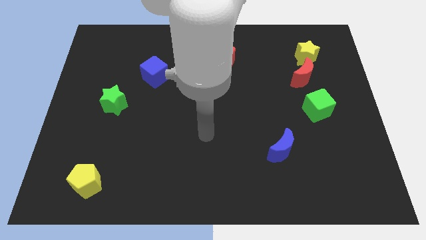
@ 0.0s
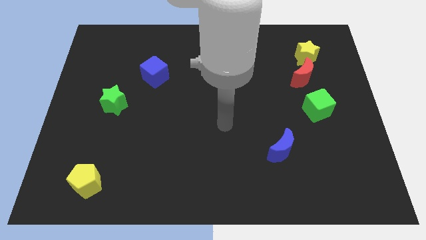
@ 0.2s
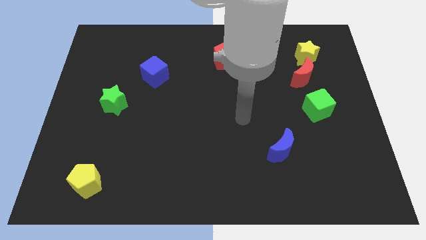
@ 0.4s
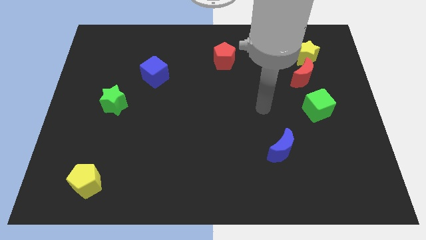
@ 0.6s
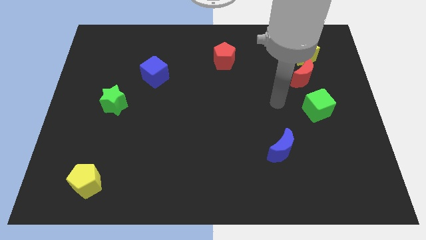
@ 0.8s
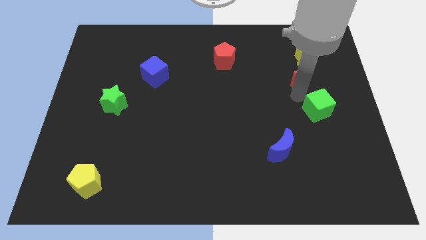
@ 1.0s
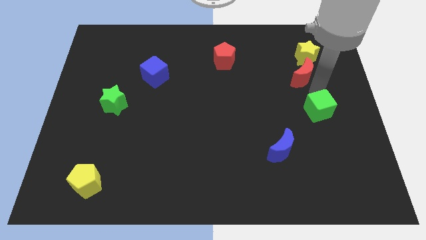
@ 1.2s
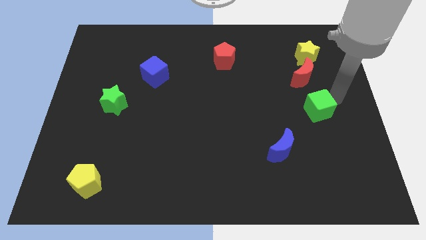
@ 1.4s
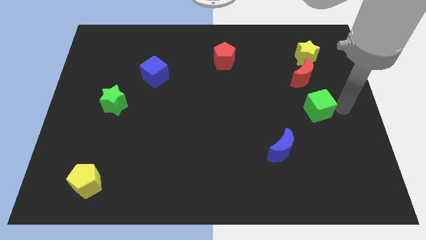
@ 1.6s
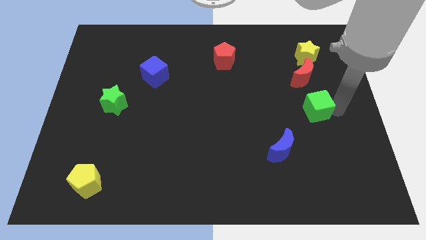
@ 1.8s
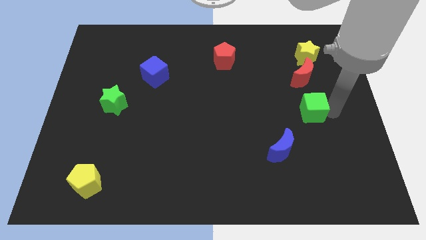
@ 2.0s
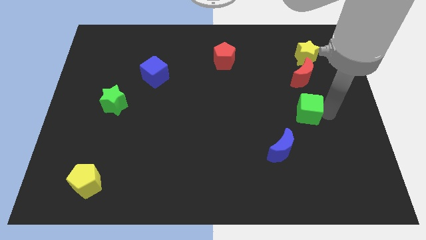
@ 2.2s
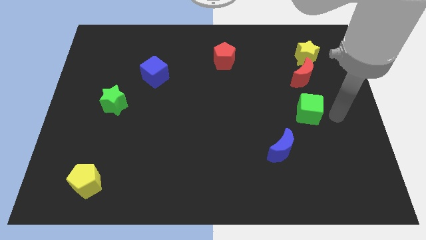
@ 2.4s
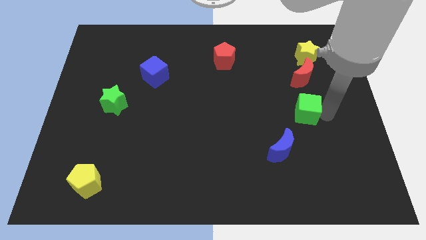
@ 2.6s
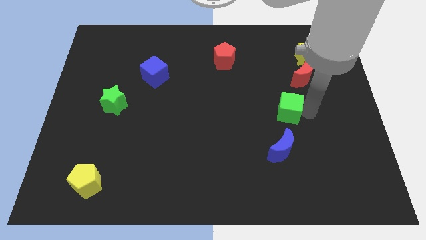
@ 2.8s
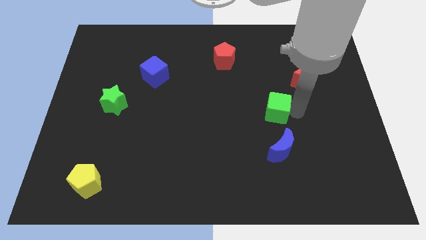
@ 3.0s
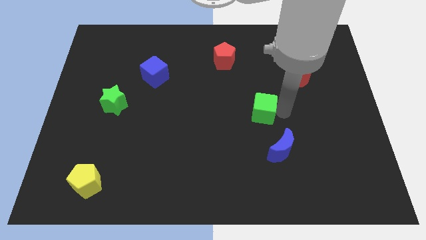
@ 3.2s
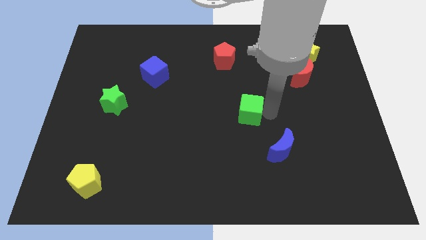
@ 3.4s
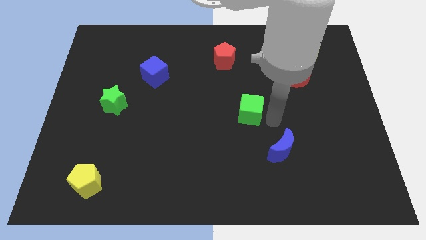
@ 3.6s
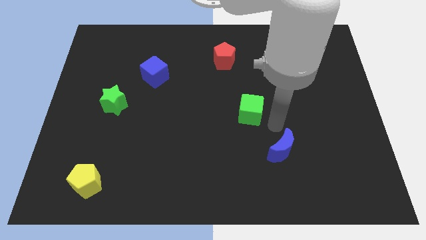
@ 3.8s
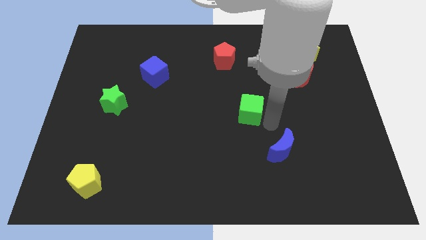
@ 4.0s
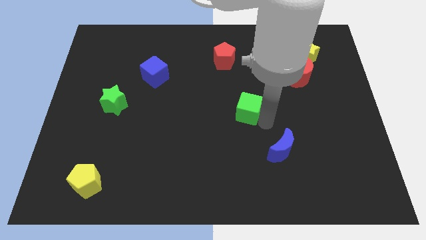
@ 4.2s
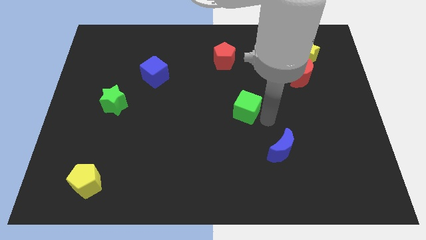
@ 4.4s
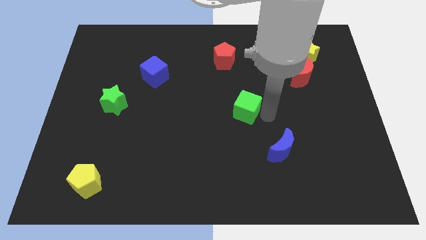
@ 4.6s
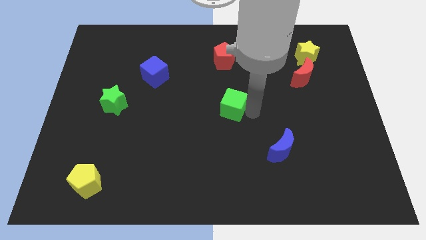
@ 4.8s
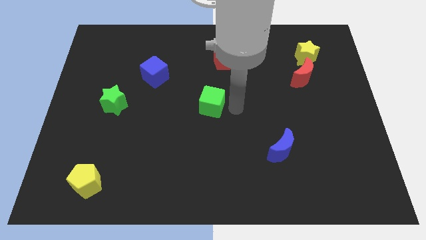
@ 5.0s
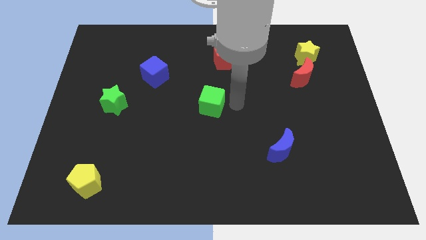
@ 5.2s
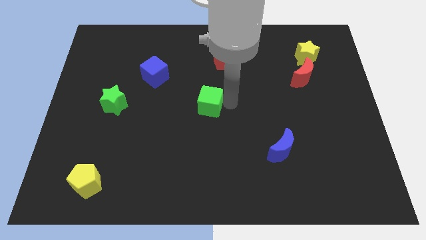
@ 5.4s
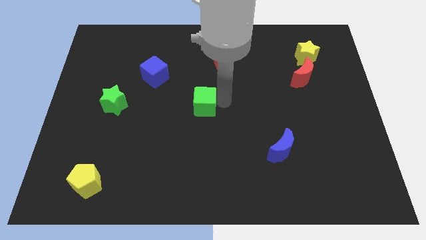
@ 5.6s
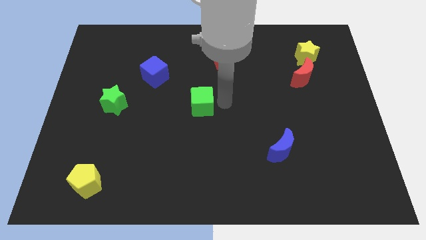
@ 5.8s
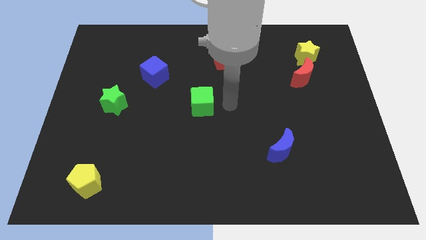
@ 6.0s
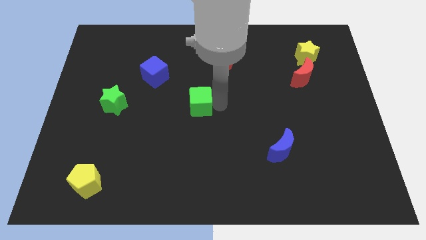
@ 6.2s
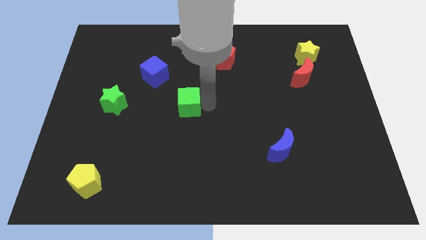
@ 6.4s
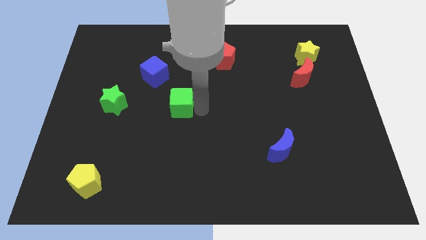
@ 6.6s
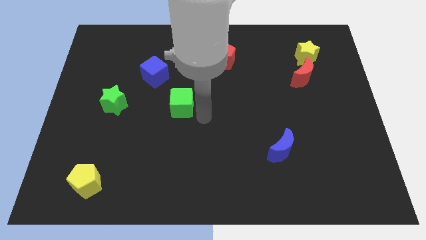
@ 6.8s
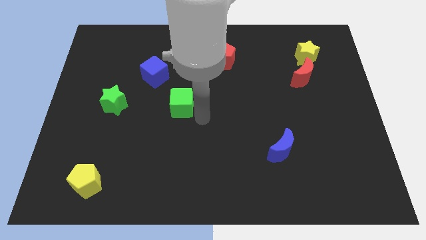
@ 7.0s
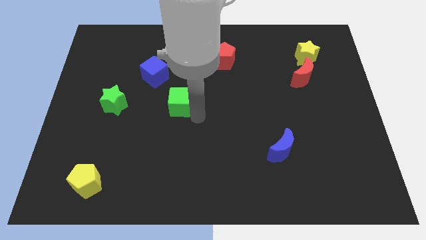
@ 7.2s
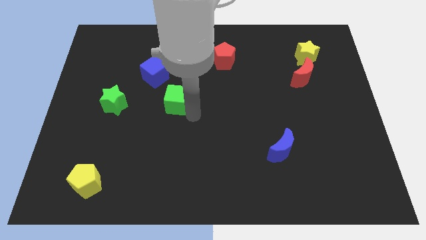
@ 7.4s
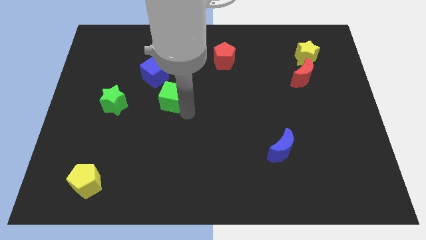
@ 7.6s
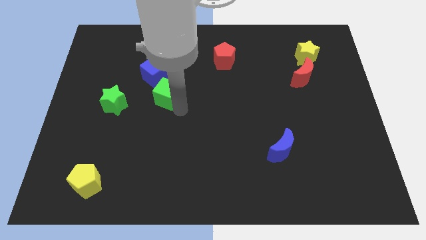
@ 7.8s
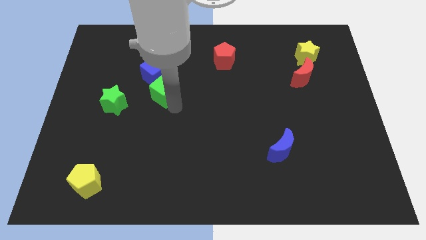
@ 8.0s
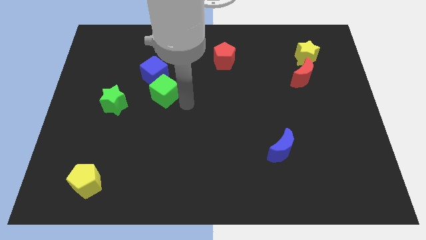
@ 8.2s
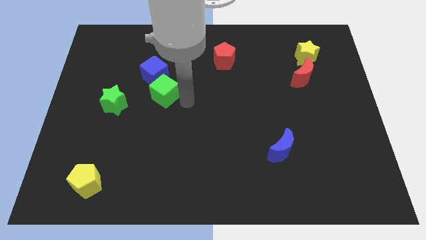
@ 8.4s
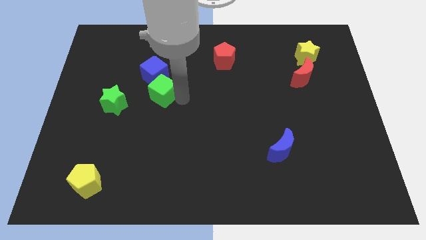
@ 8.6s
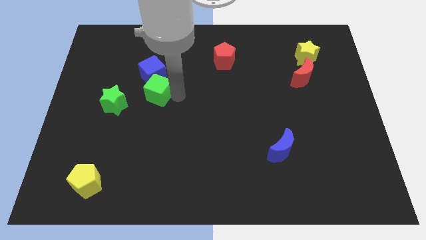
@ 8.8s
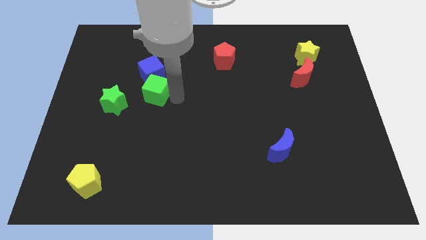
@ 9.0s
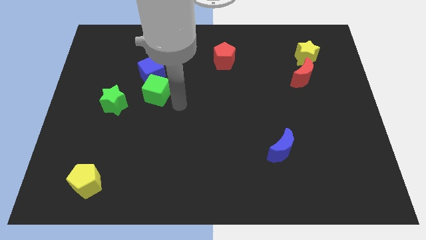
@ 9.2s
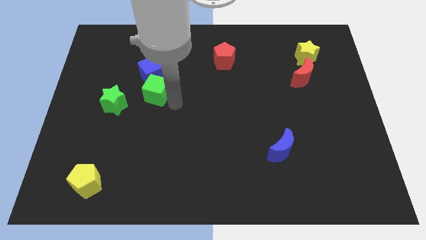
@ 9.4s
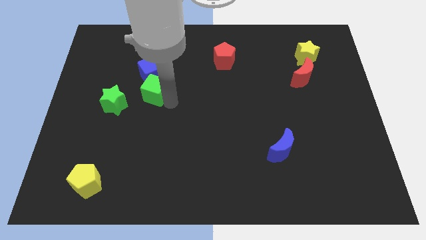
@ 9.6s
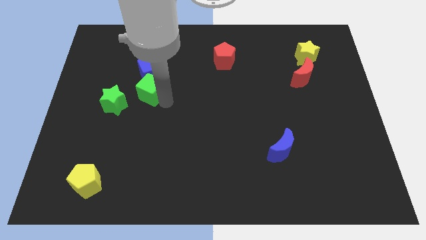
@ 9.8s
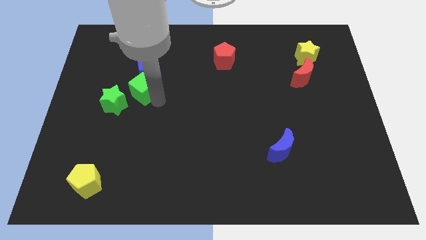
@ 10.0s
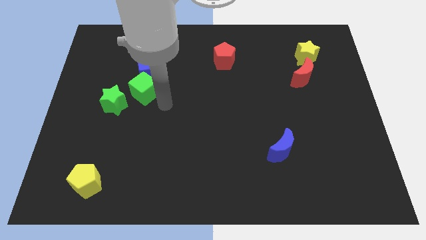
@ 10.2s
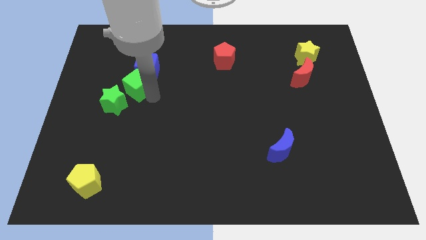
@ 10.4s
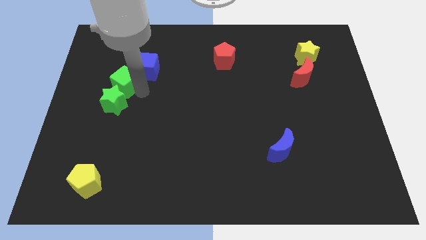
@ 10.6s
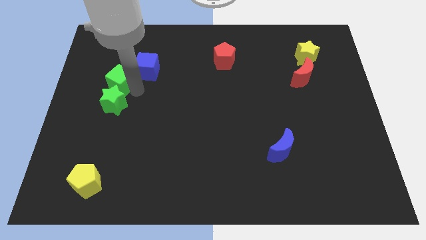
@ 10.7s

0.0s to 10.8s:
slide the green cube diagonally up and to the left of the green star

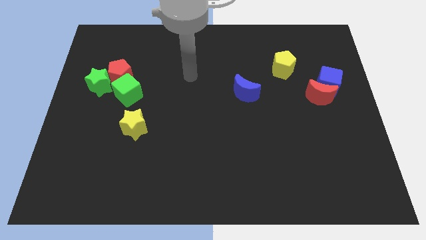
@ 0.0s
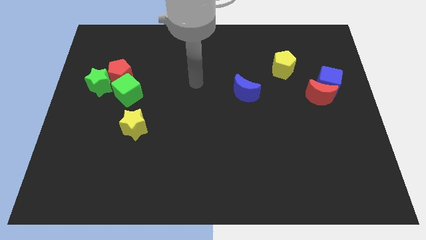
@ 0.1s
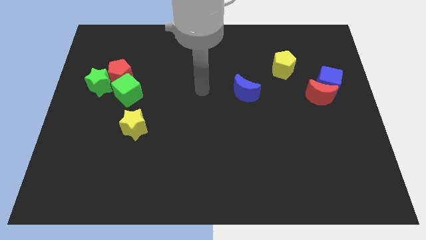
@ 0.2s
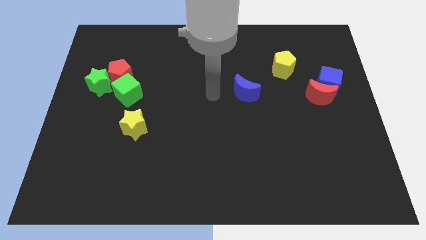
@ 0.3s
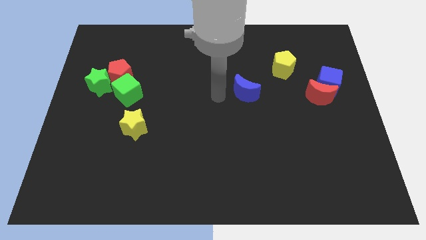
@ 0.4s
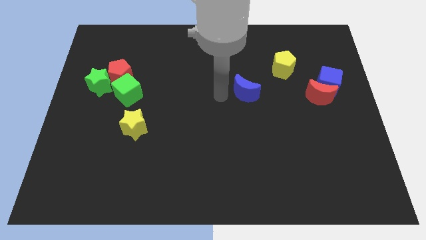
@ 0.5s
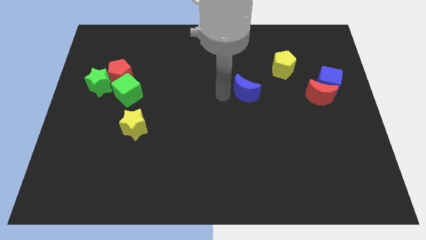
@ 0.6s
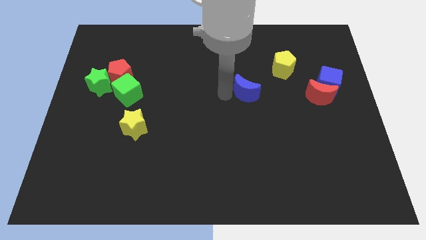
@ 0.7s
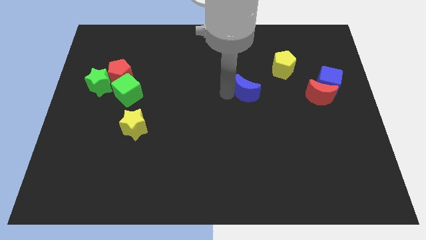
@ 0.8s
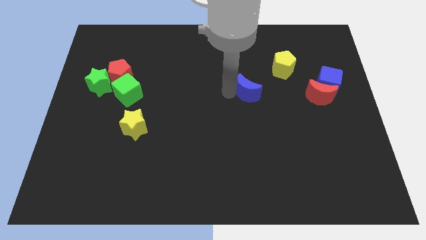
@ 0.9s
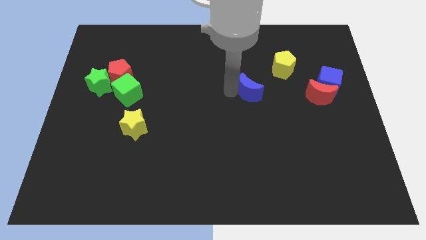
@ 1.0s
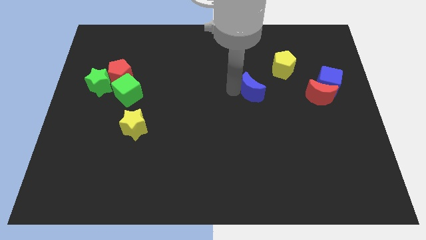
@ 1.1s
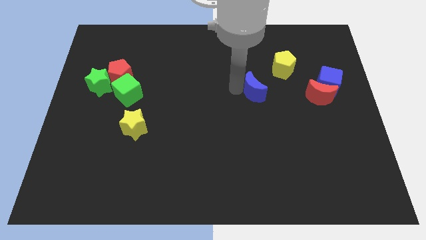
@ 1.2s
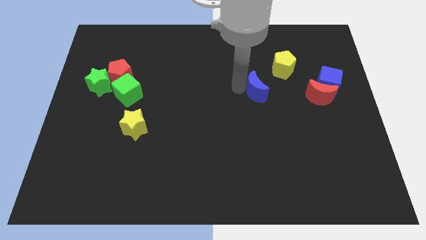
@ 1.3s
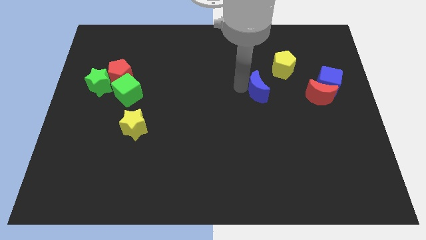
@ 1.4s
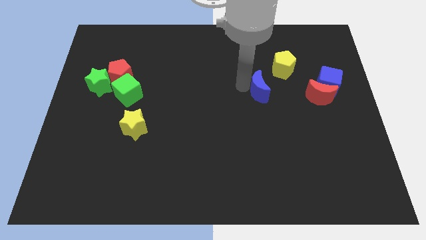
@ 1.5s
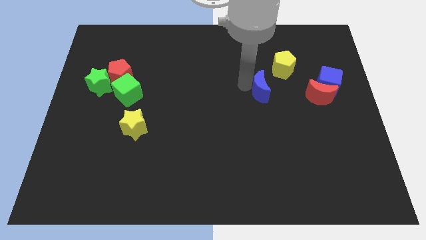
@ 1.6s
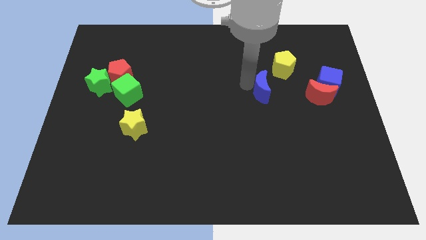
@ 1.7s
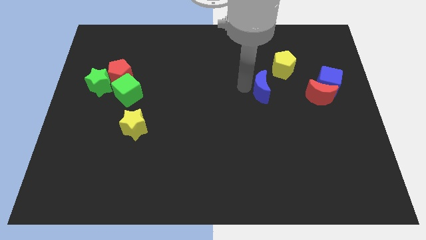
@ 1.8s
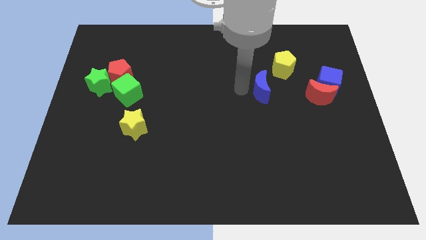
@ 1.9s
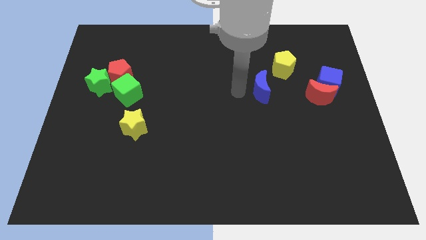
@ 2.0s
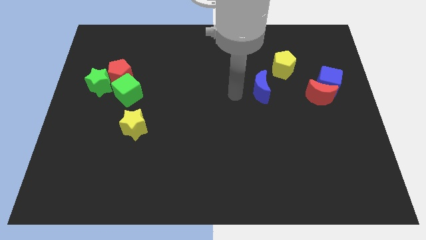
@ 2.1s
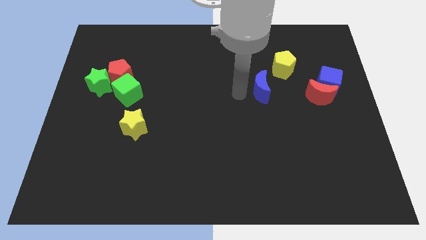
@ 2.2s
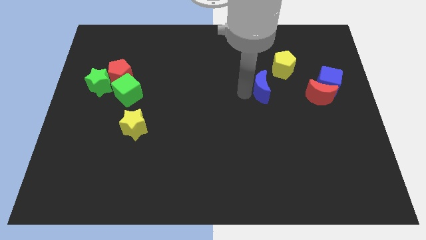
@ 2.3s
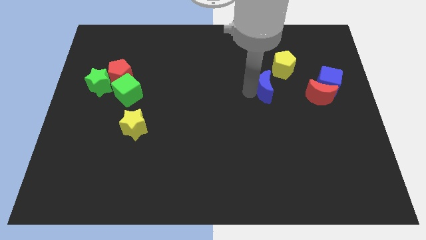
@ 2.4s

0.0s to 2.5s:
put the blue moon to the left side of the blue cube
